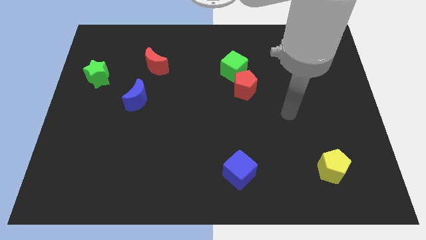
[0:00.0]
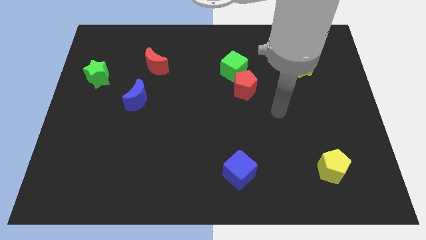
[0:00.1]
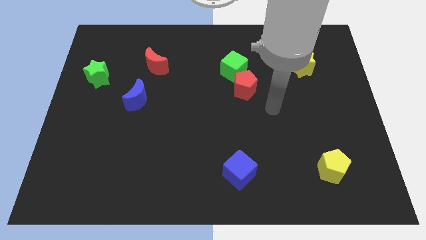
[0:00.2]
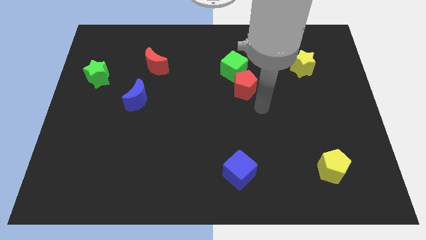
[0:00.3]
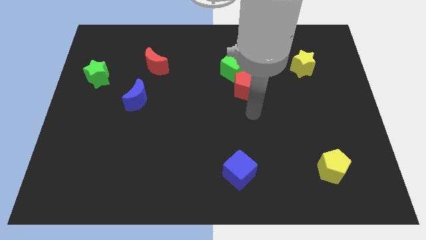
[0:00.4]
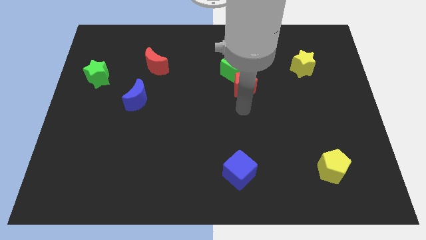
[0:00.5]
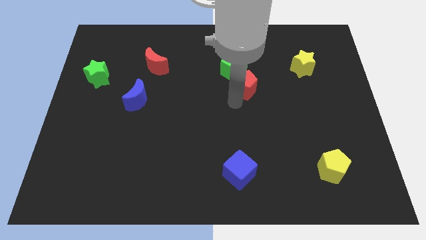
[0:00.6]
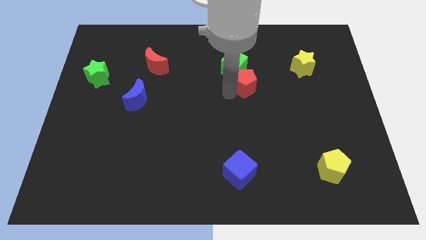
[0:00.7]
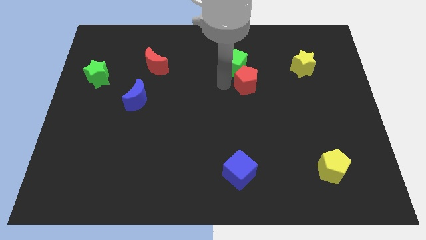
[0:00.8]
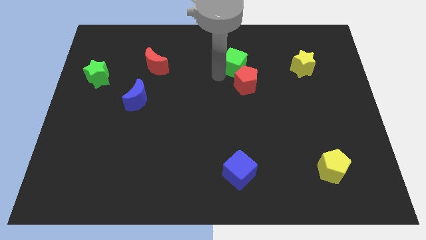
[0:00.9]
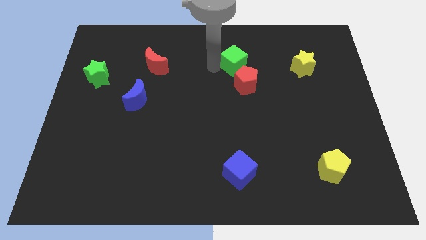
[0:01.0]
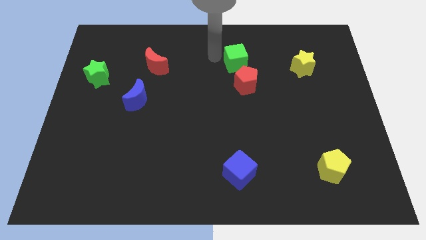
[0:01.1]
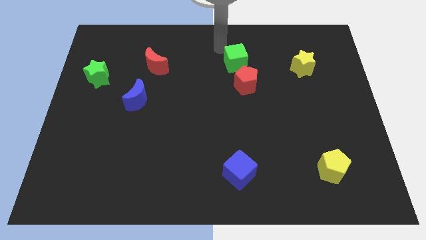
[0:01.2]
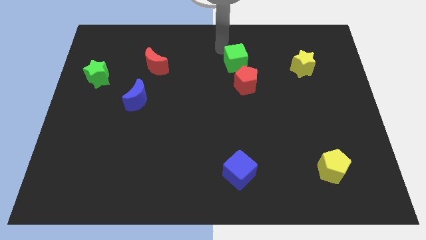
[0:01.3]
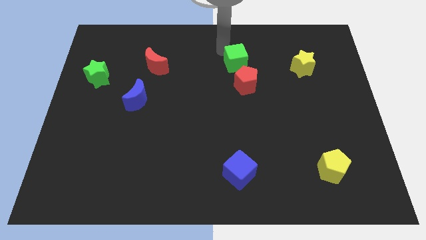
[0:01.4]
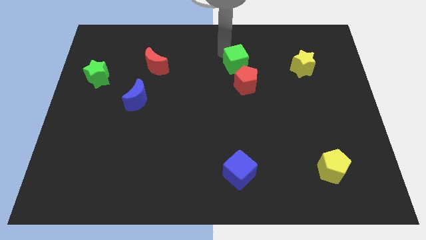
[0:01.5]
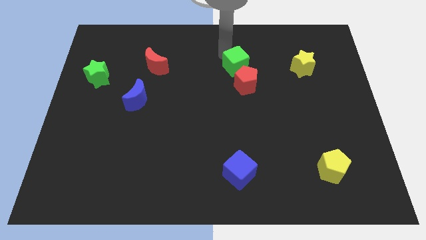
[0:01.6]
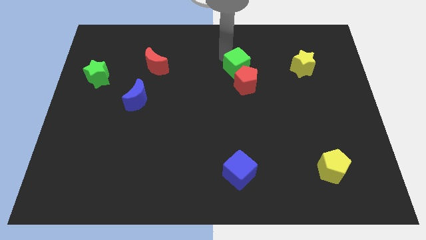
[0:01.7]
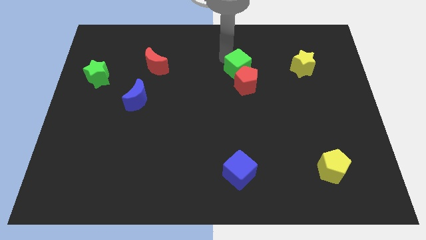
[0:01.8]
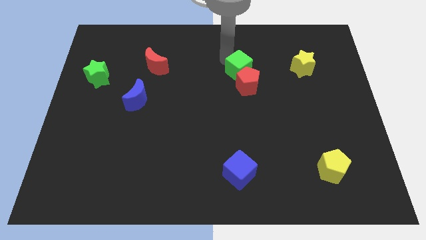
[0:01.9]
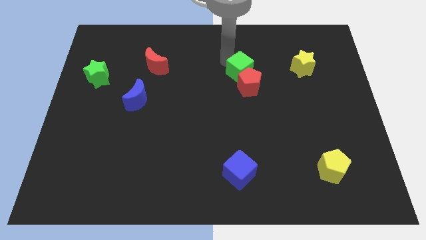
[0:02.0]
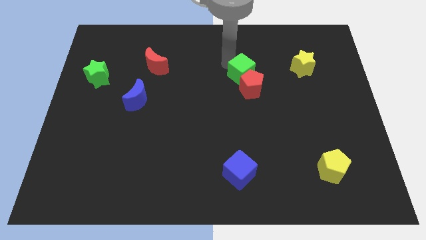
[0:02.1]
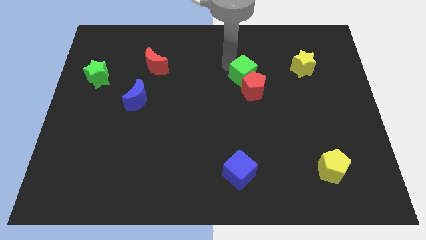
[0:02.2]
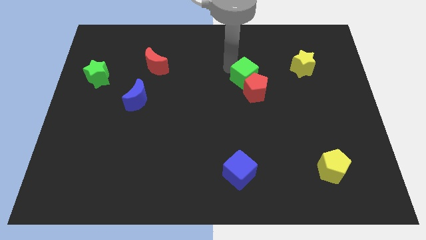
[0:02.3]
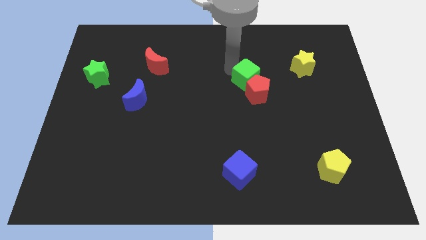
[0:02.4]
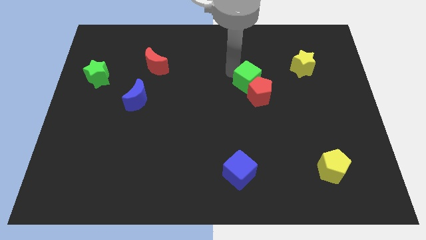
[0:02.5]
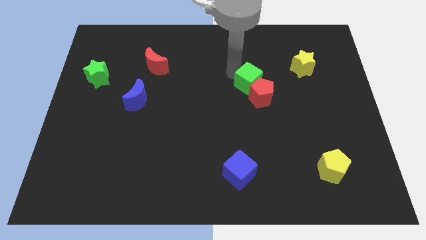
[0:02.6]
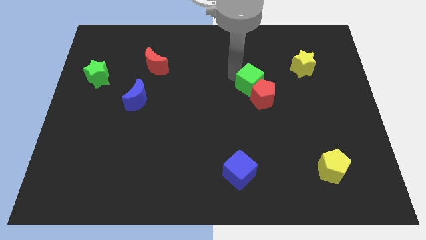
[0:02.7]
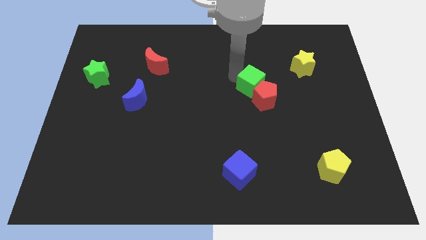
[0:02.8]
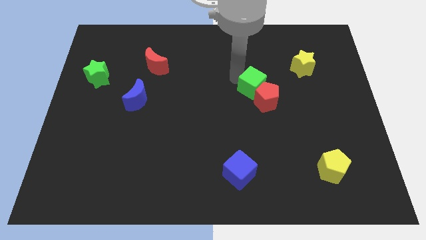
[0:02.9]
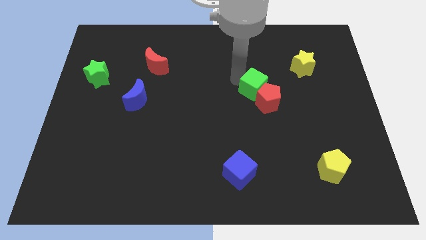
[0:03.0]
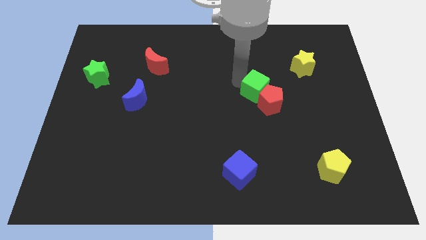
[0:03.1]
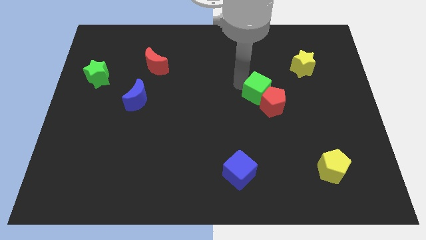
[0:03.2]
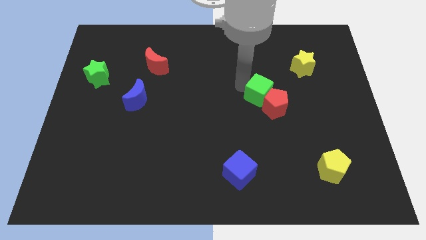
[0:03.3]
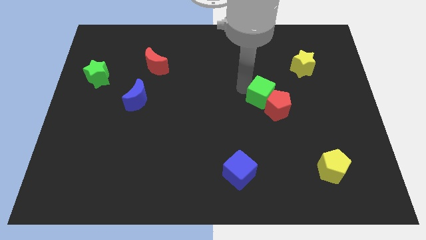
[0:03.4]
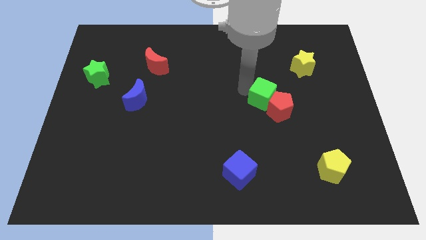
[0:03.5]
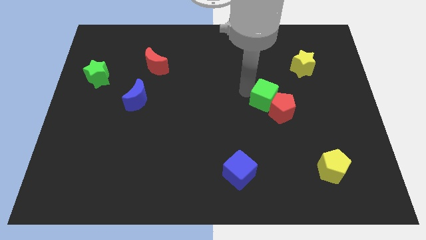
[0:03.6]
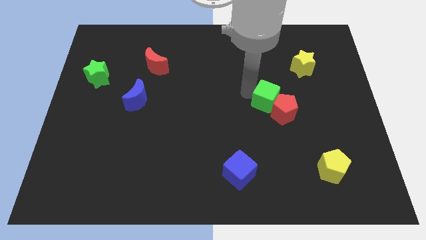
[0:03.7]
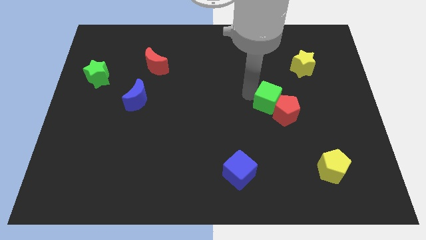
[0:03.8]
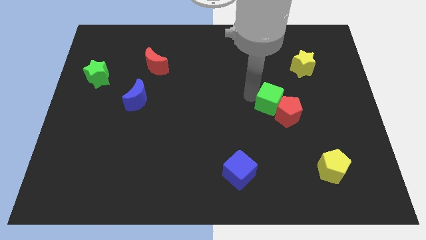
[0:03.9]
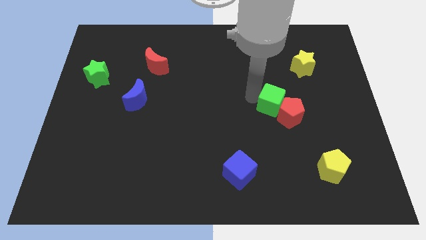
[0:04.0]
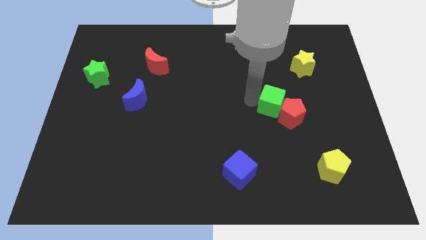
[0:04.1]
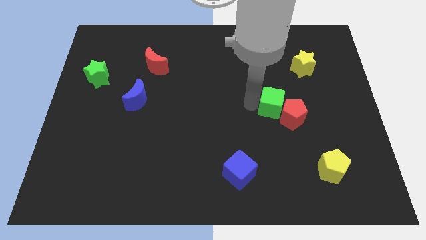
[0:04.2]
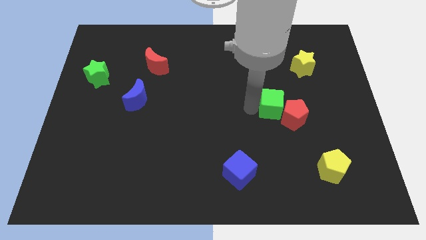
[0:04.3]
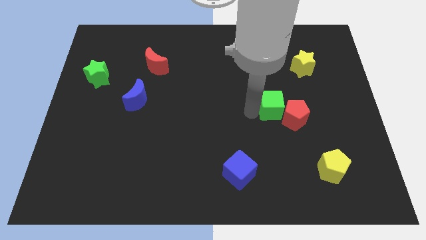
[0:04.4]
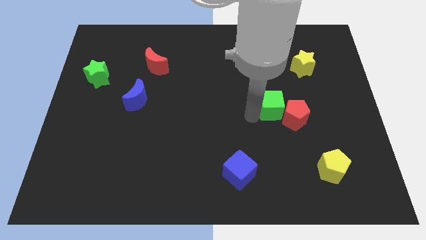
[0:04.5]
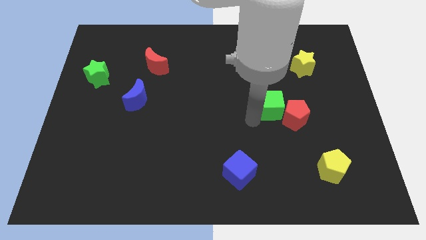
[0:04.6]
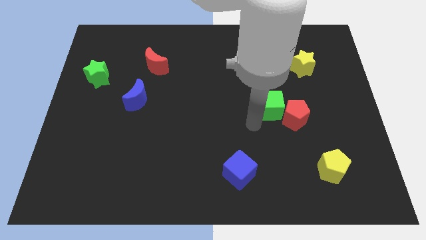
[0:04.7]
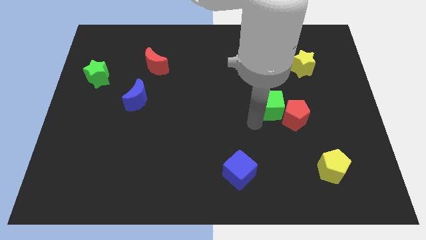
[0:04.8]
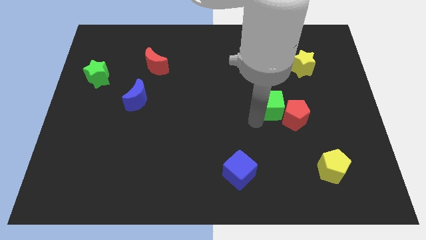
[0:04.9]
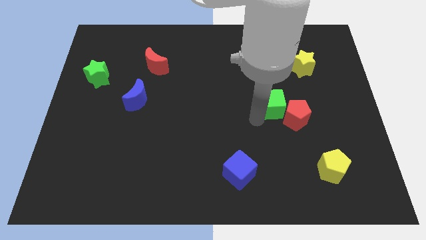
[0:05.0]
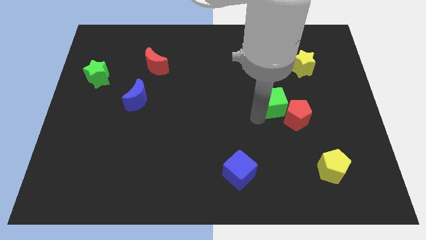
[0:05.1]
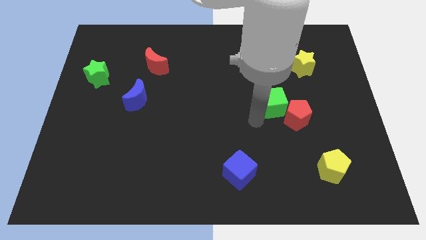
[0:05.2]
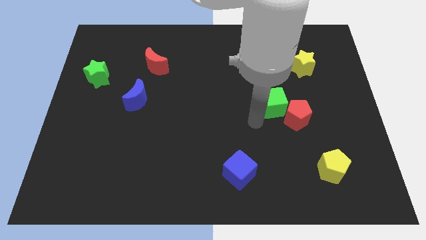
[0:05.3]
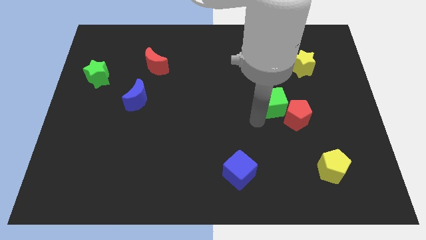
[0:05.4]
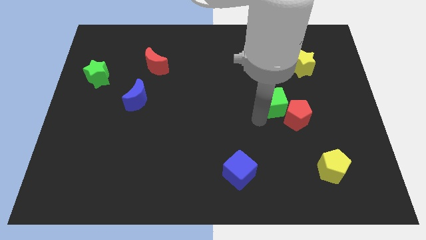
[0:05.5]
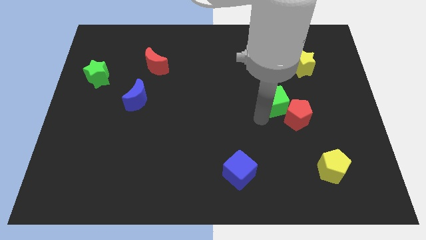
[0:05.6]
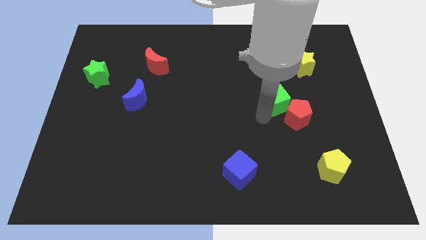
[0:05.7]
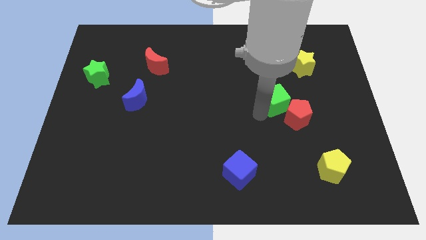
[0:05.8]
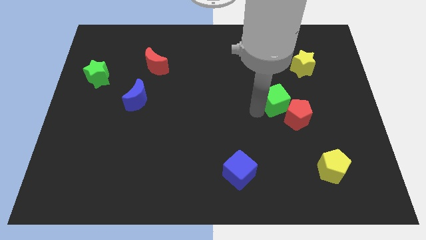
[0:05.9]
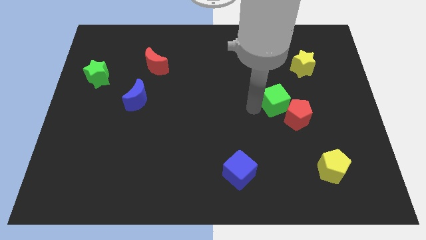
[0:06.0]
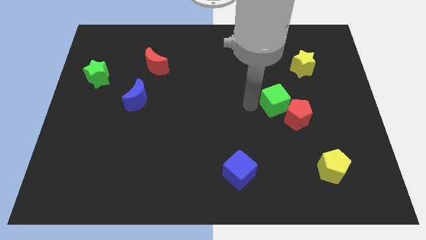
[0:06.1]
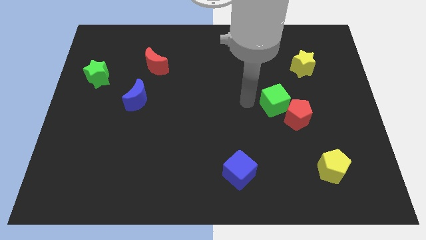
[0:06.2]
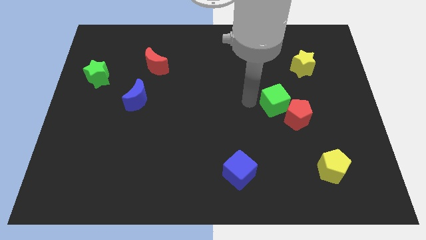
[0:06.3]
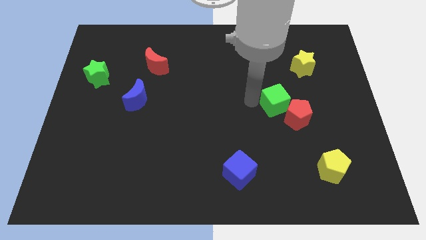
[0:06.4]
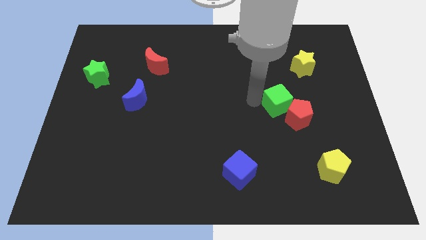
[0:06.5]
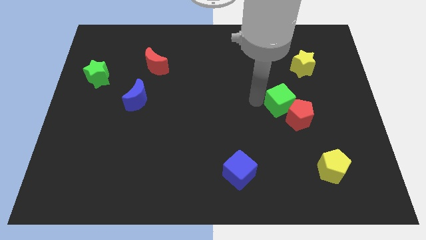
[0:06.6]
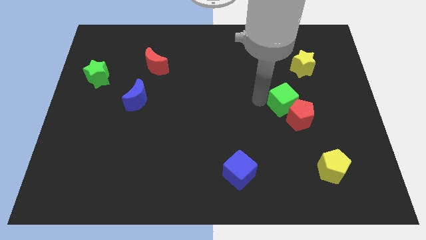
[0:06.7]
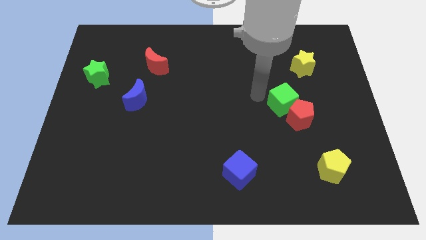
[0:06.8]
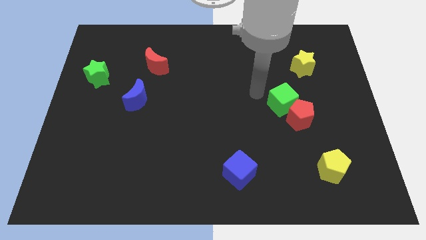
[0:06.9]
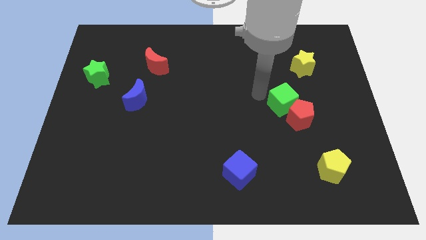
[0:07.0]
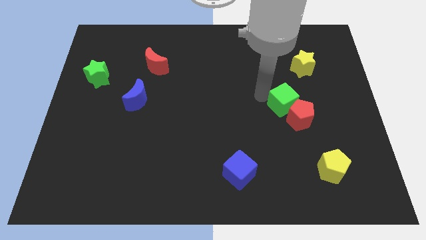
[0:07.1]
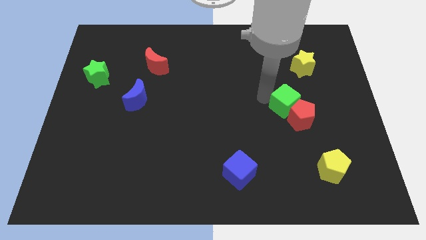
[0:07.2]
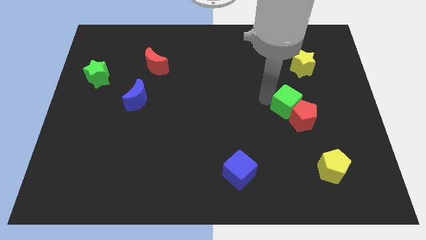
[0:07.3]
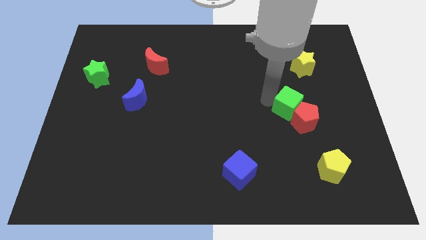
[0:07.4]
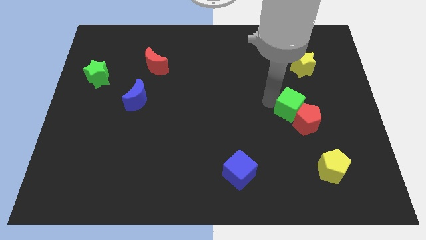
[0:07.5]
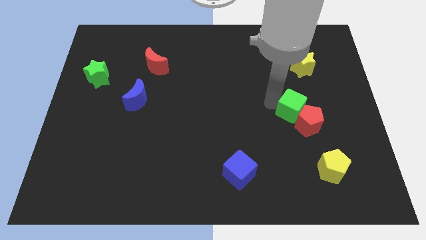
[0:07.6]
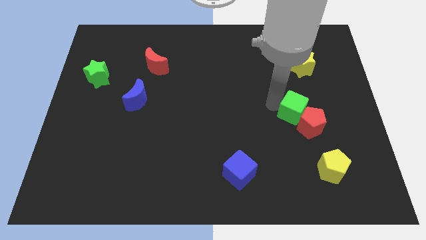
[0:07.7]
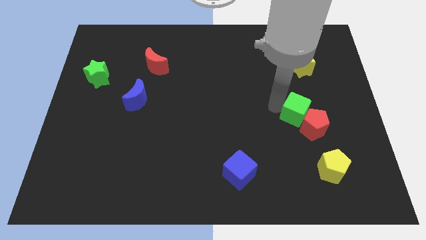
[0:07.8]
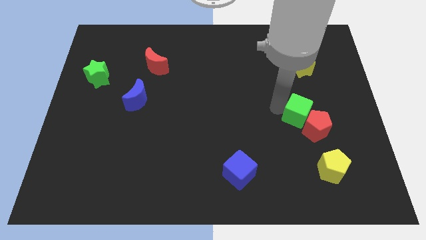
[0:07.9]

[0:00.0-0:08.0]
slide the green cube downwards and to the right diagonally

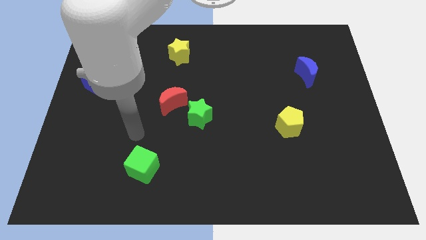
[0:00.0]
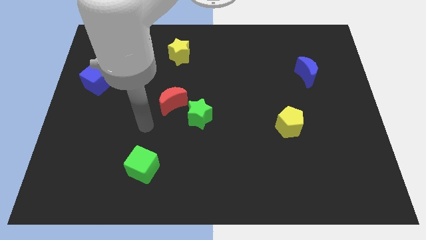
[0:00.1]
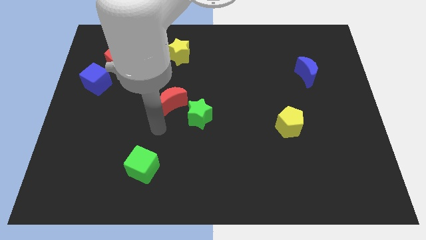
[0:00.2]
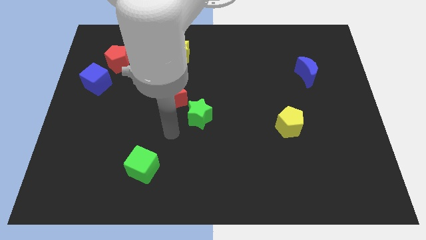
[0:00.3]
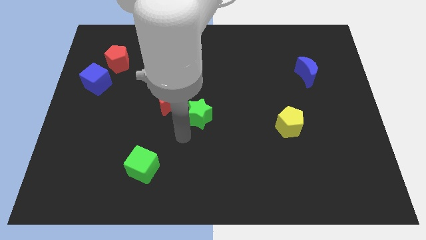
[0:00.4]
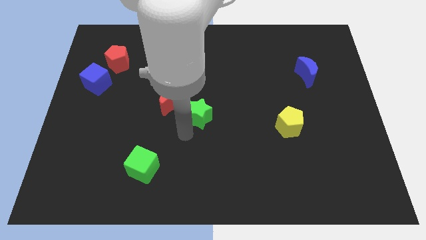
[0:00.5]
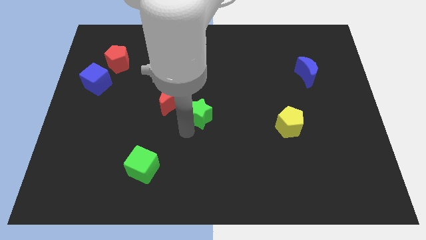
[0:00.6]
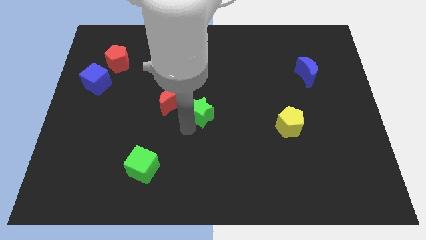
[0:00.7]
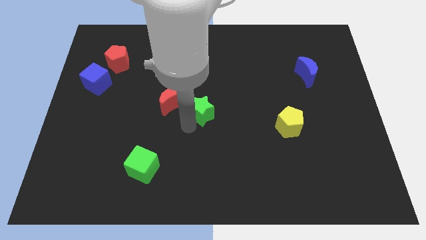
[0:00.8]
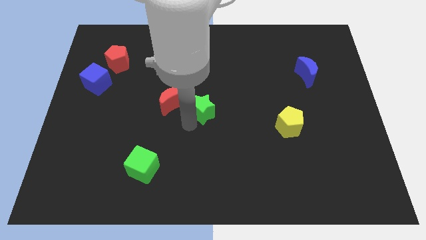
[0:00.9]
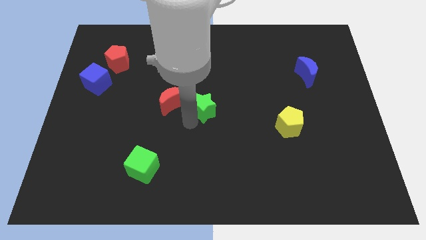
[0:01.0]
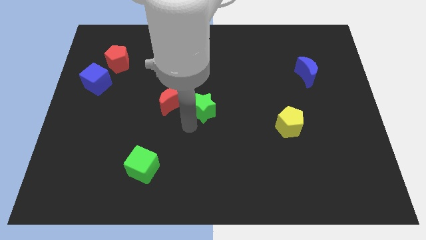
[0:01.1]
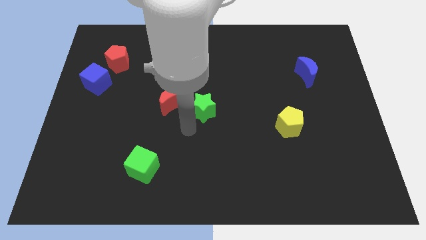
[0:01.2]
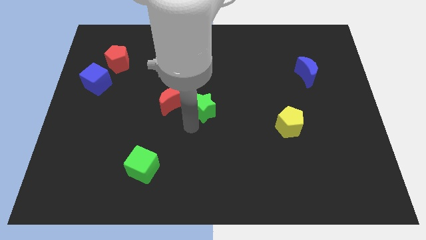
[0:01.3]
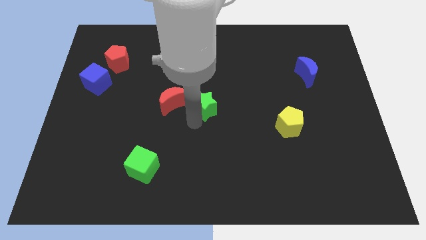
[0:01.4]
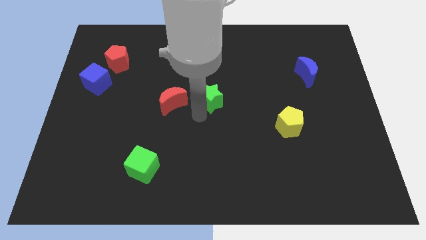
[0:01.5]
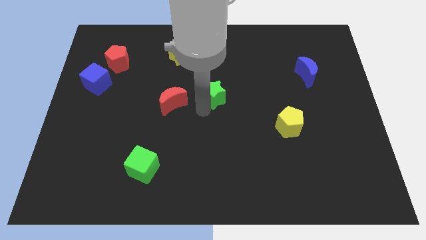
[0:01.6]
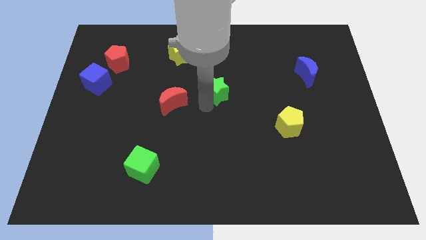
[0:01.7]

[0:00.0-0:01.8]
slightly move the green star upwards and right diagonally
